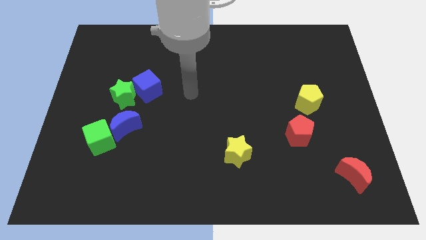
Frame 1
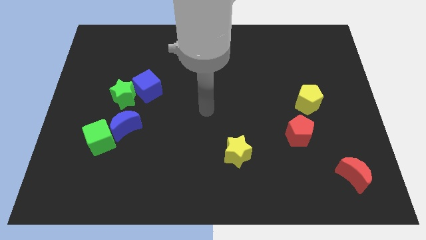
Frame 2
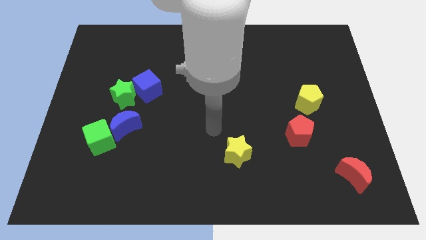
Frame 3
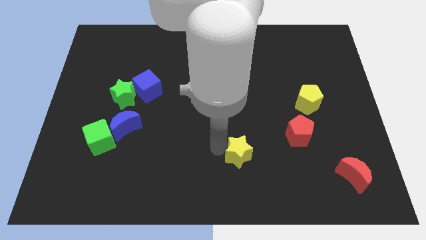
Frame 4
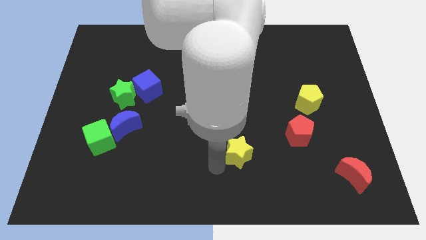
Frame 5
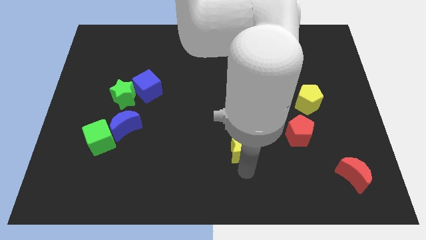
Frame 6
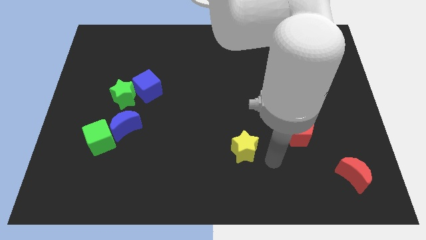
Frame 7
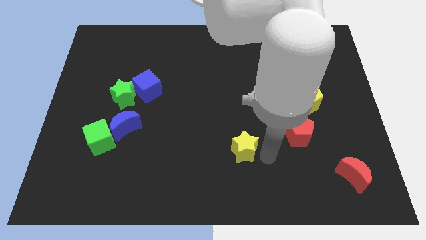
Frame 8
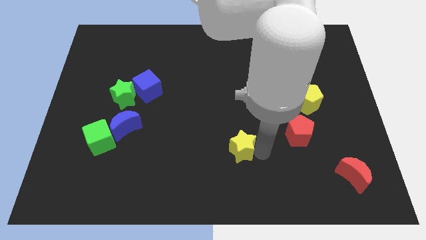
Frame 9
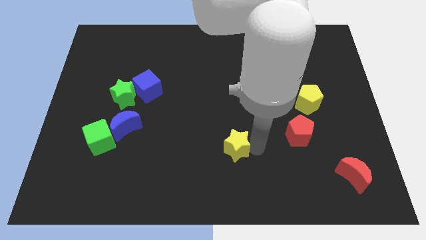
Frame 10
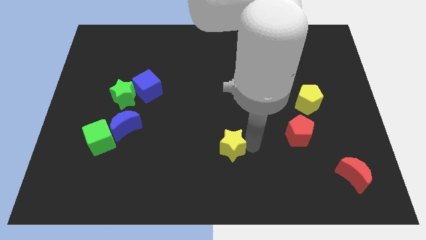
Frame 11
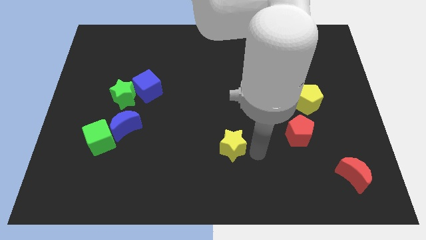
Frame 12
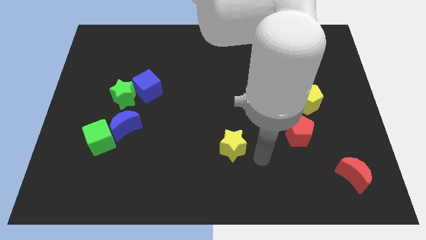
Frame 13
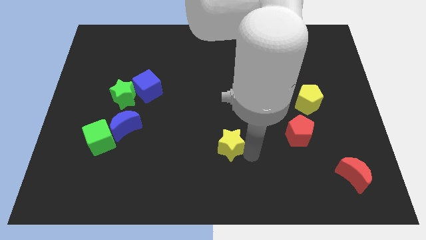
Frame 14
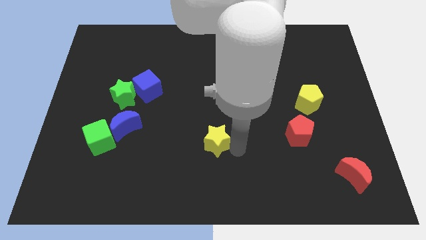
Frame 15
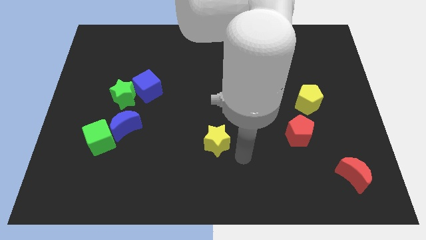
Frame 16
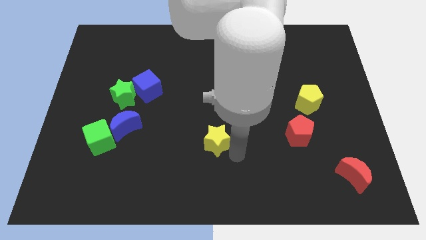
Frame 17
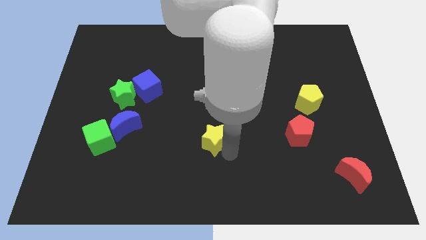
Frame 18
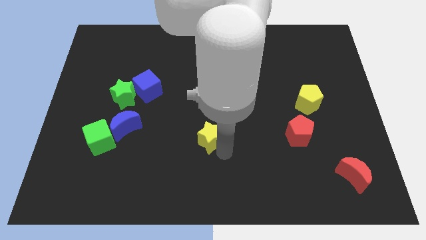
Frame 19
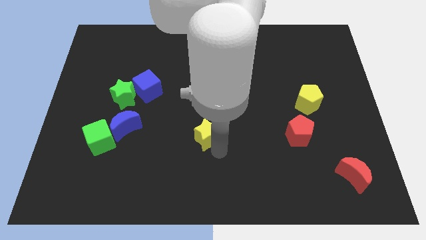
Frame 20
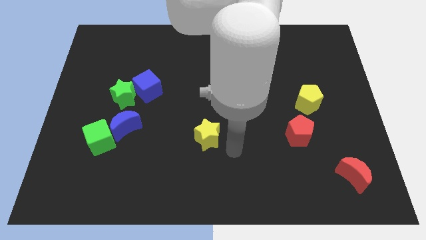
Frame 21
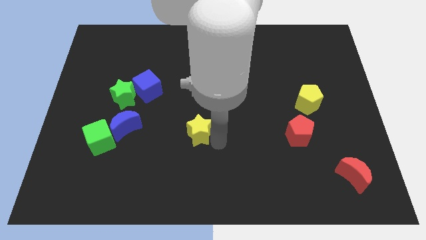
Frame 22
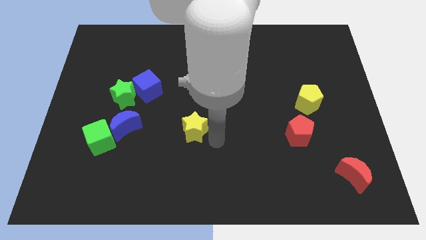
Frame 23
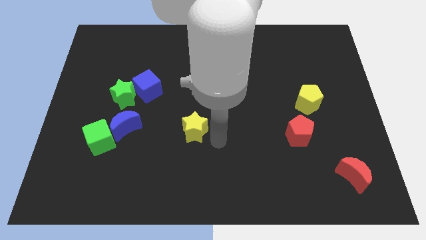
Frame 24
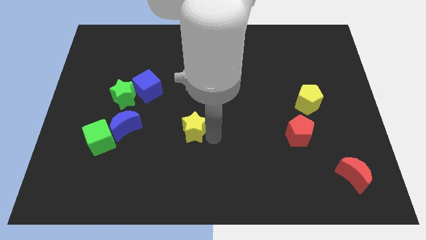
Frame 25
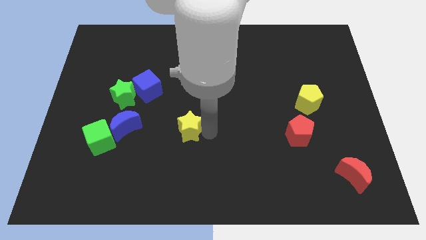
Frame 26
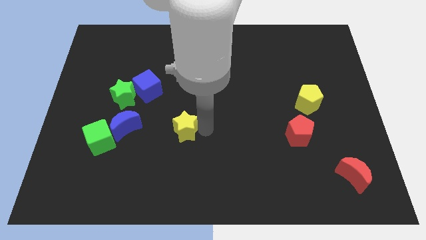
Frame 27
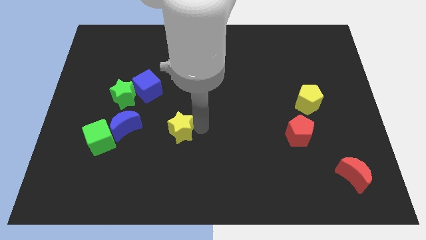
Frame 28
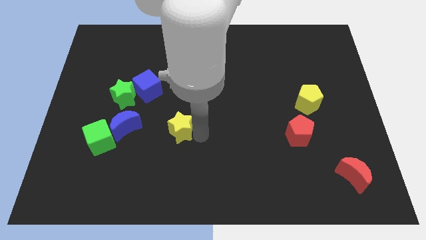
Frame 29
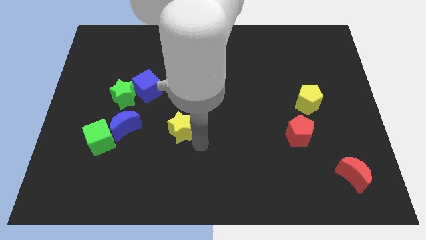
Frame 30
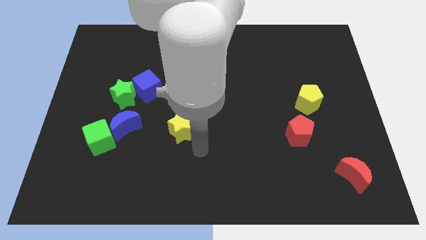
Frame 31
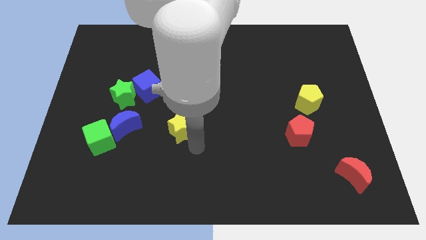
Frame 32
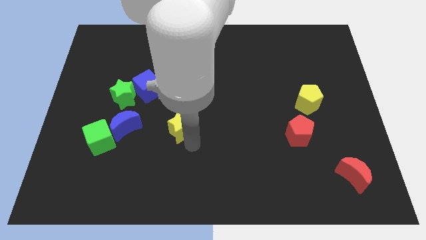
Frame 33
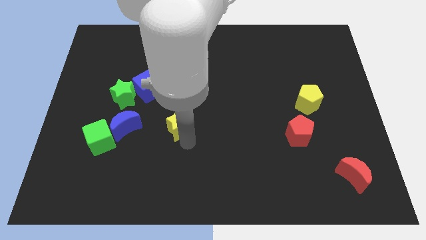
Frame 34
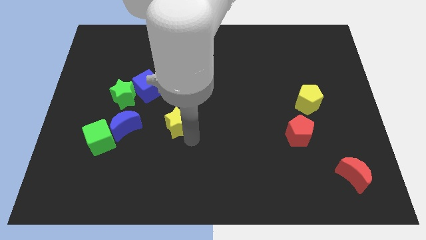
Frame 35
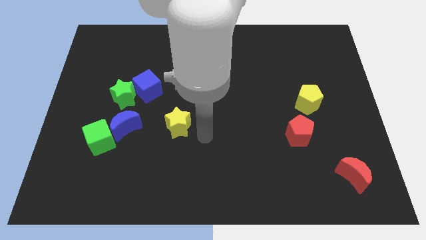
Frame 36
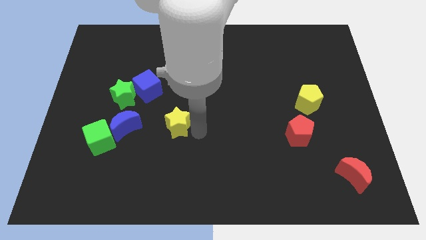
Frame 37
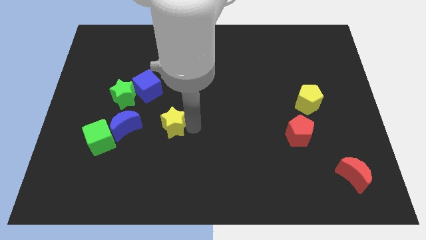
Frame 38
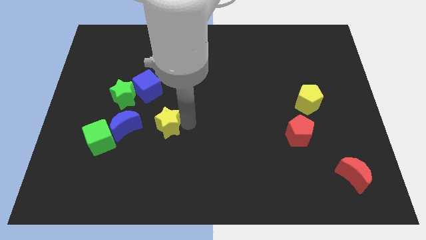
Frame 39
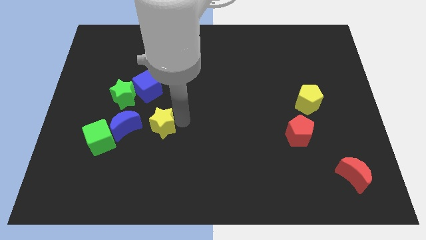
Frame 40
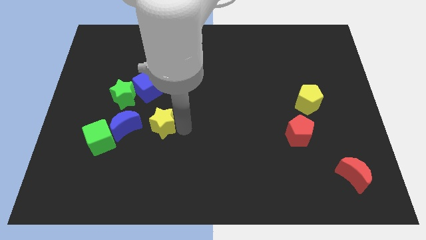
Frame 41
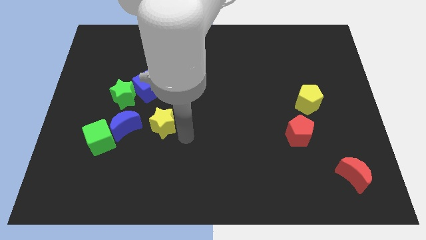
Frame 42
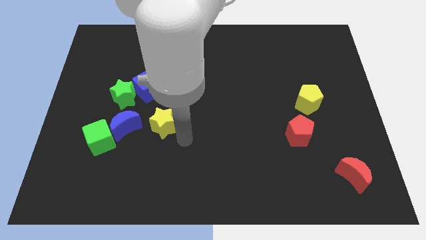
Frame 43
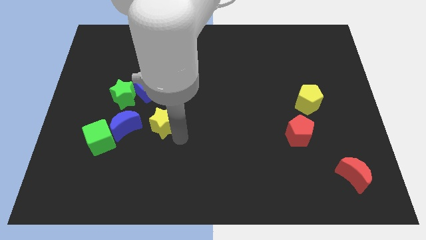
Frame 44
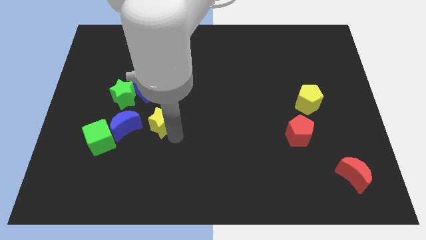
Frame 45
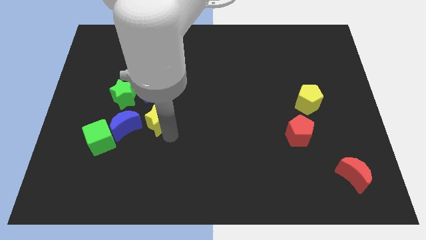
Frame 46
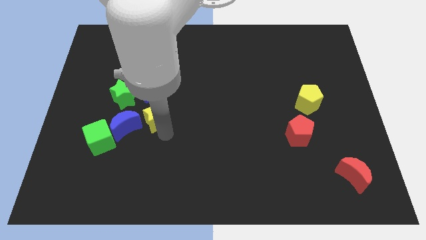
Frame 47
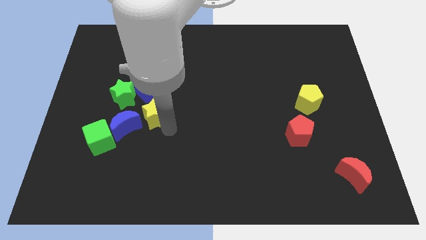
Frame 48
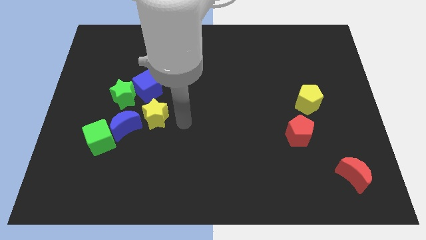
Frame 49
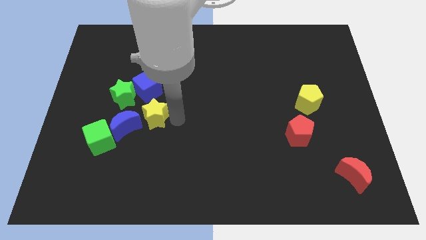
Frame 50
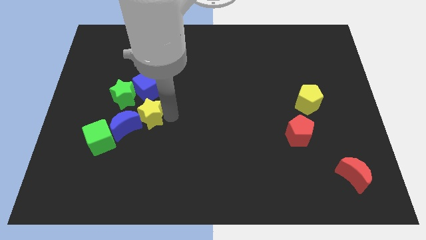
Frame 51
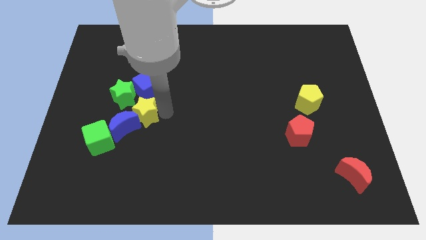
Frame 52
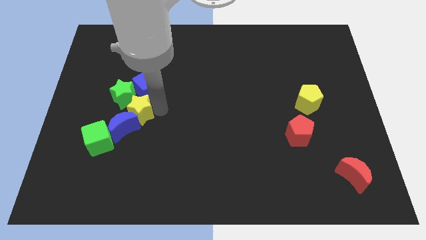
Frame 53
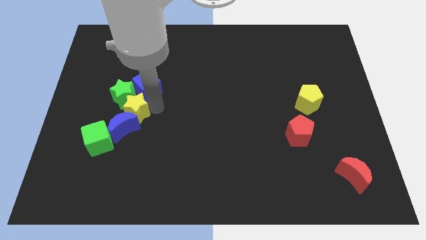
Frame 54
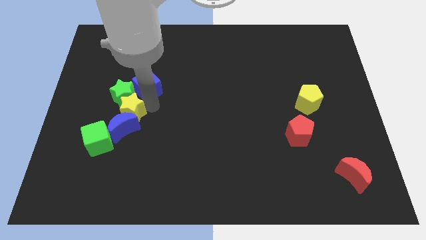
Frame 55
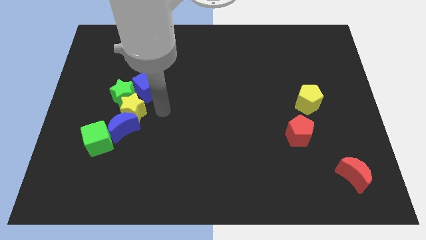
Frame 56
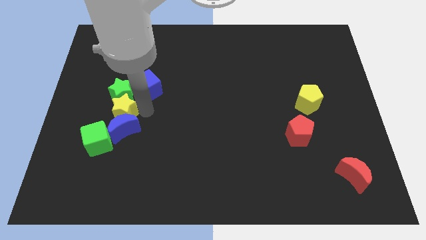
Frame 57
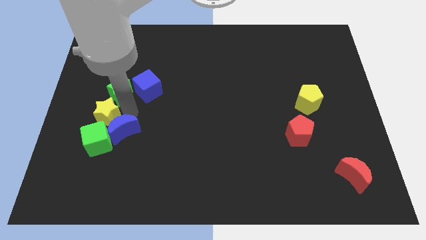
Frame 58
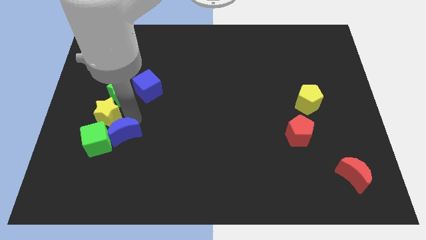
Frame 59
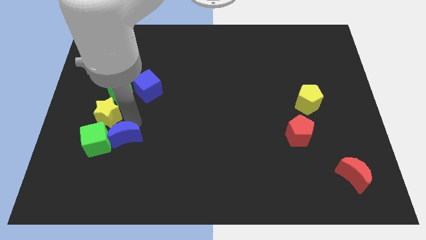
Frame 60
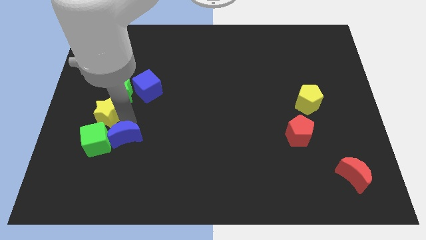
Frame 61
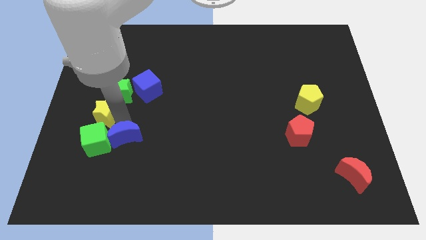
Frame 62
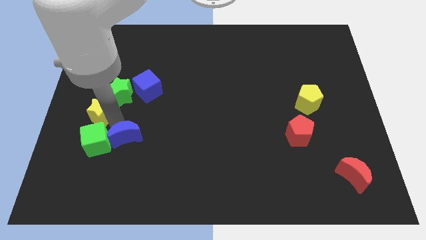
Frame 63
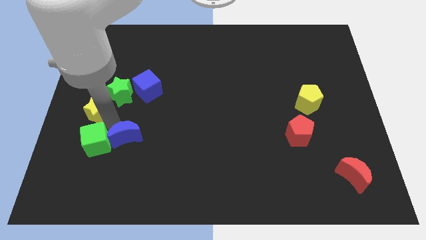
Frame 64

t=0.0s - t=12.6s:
push the yellow star to the left side of the board
